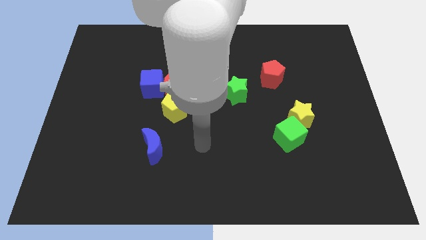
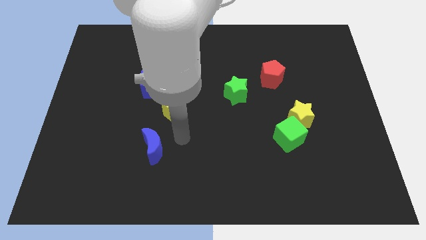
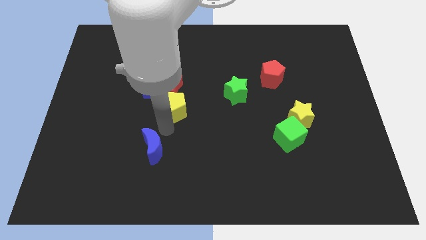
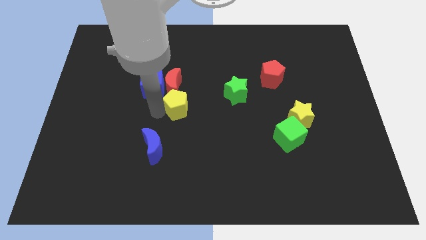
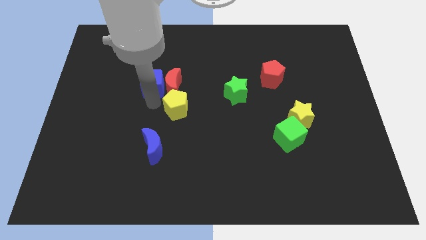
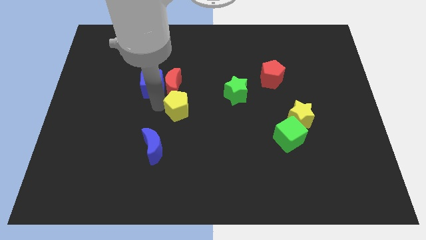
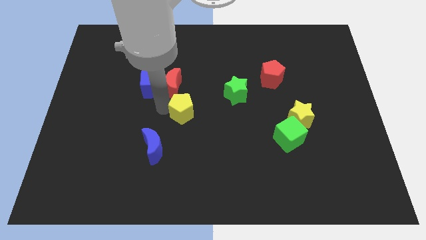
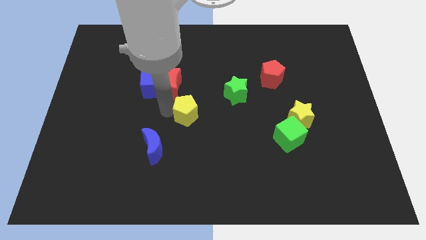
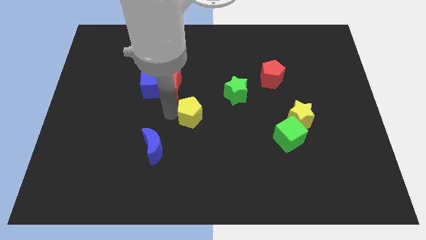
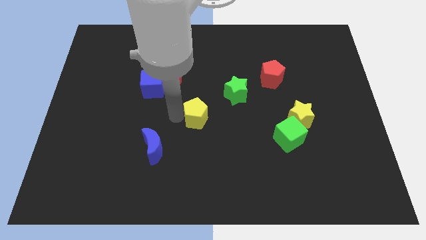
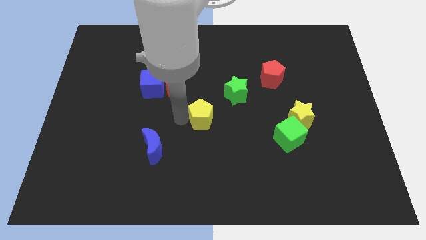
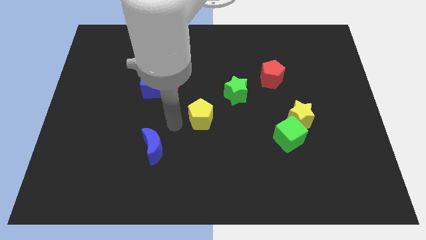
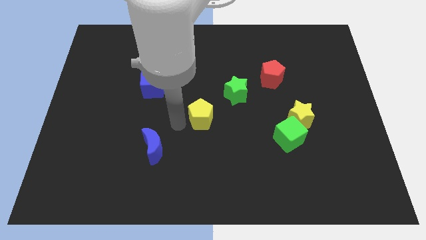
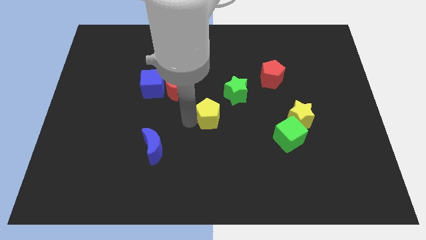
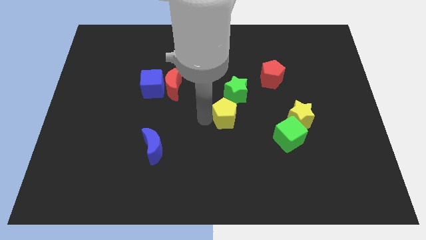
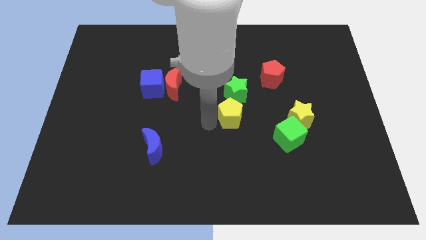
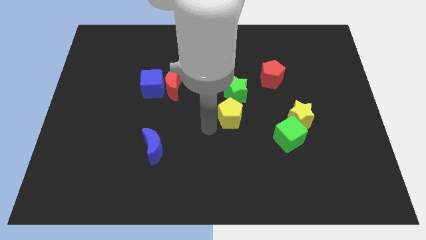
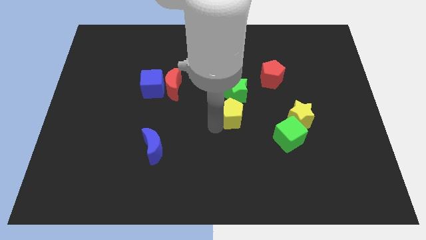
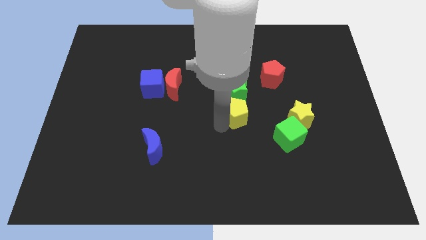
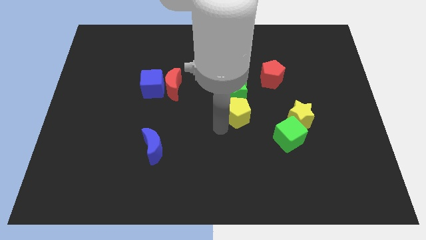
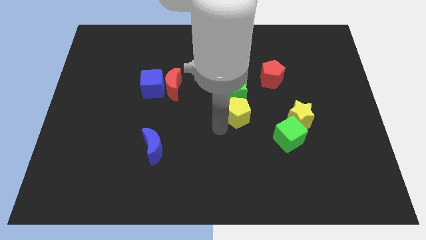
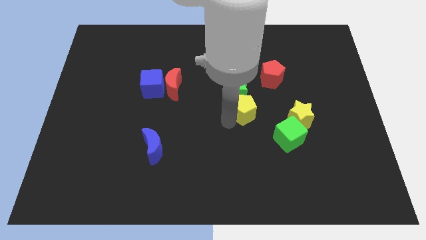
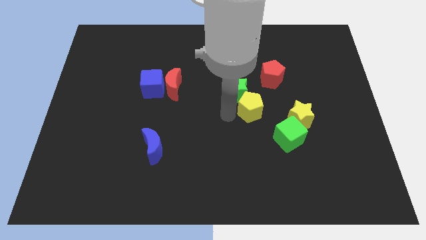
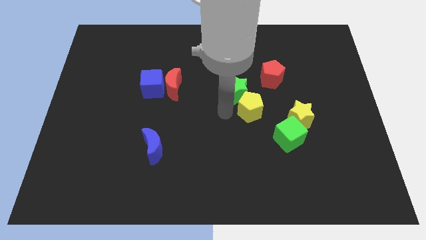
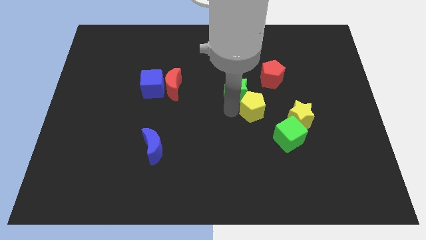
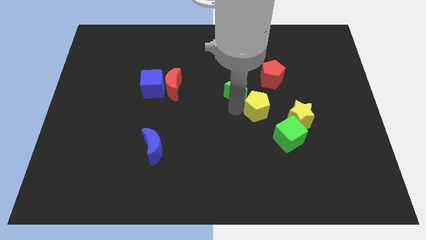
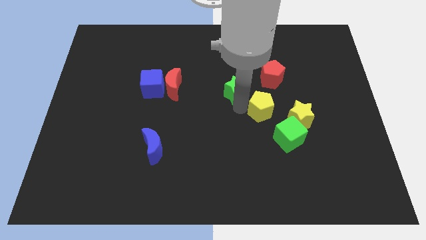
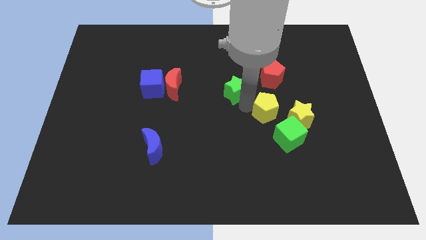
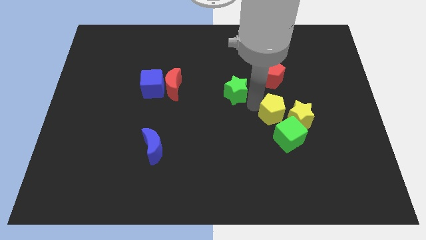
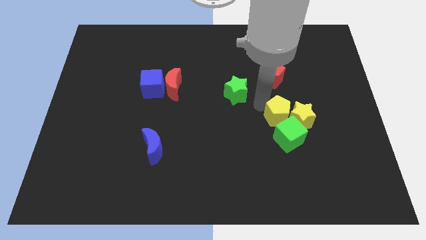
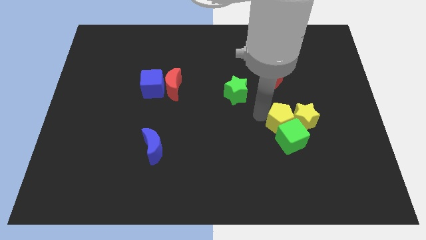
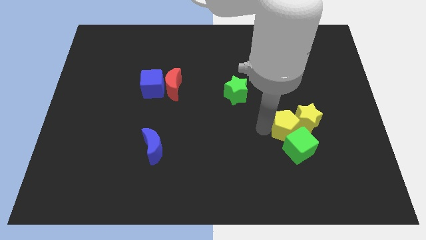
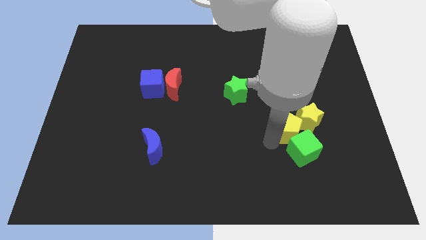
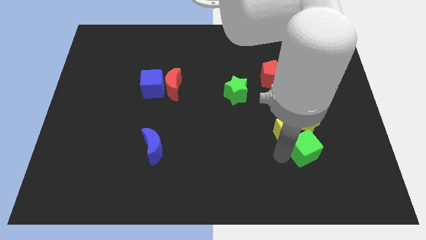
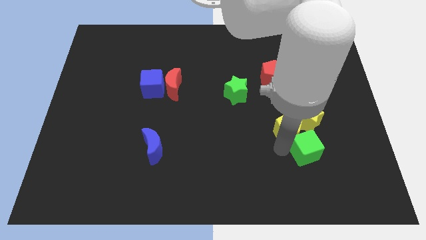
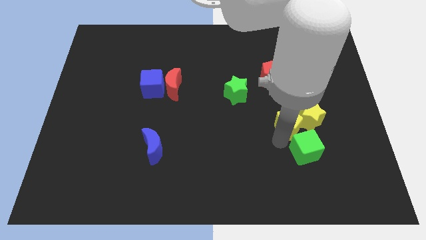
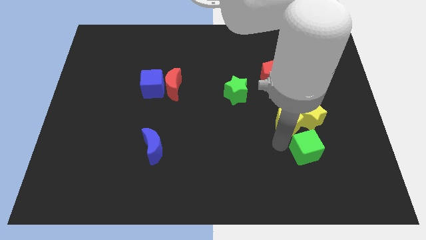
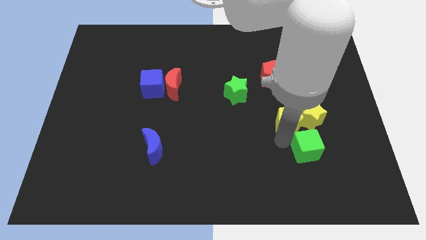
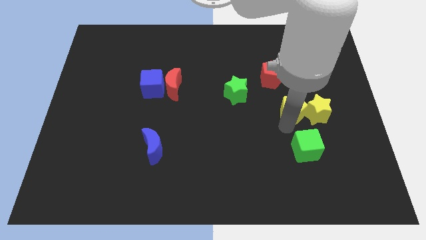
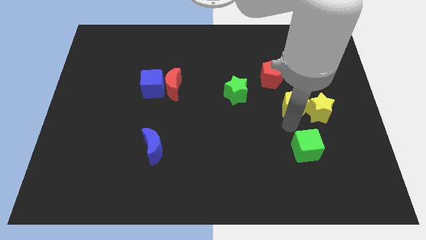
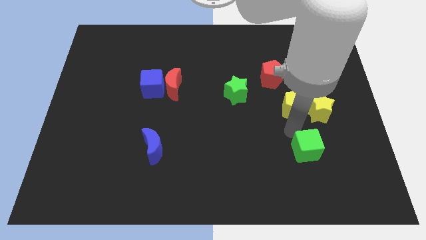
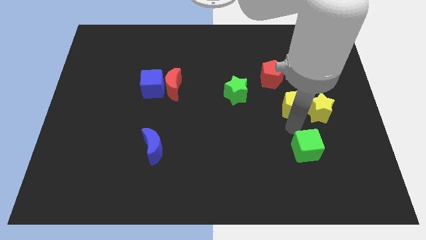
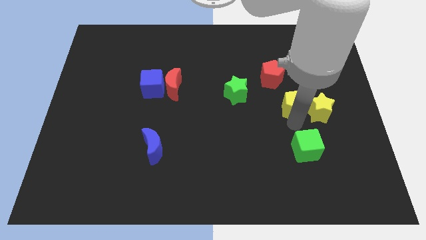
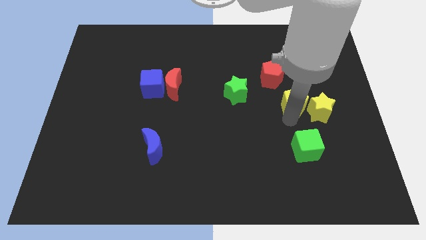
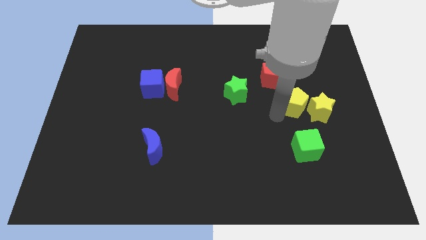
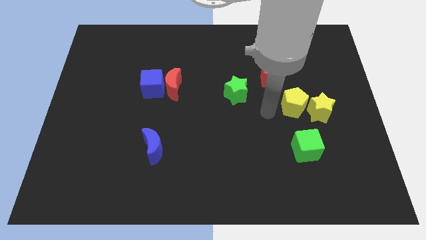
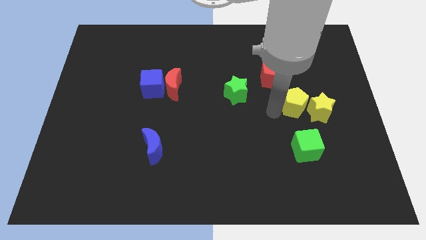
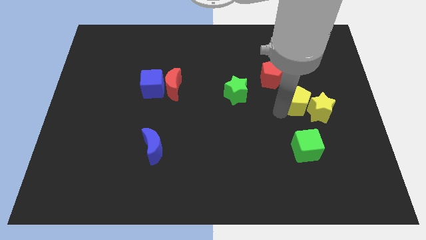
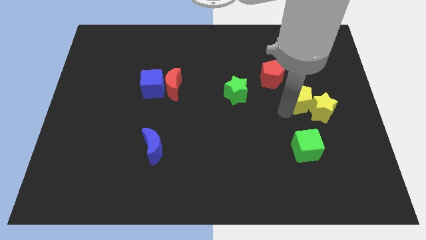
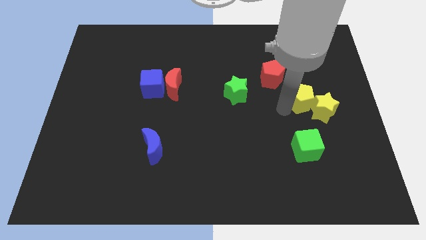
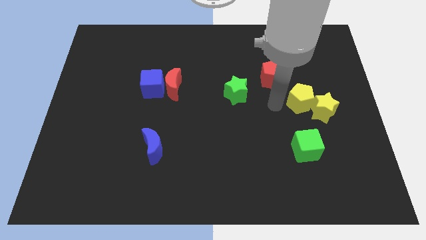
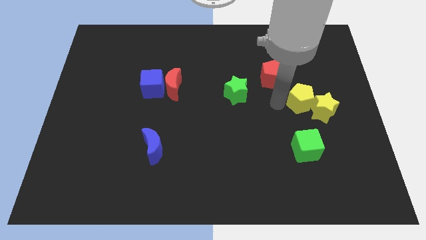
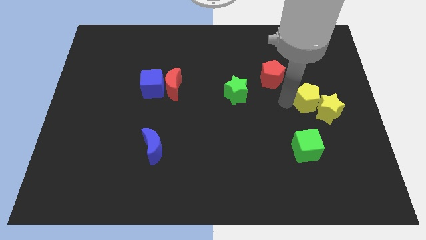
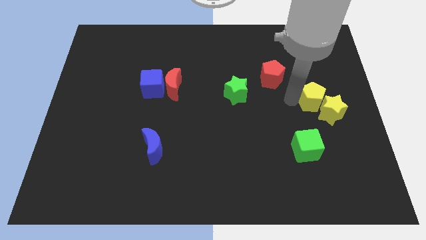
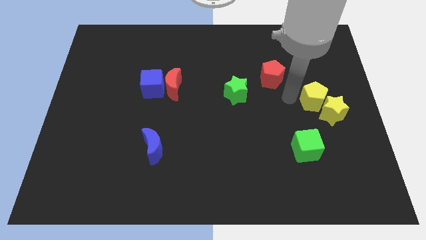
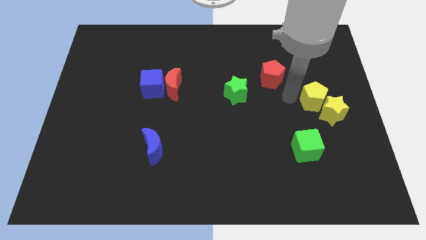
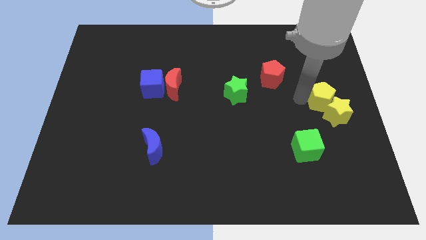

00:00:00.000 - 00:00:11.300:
slide the yellow pentagon to the right side

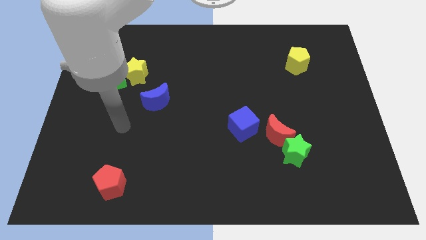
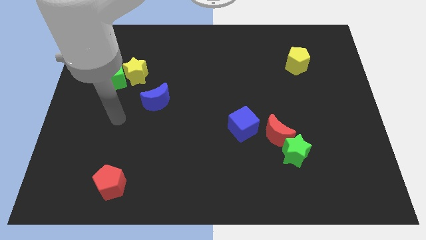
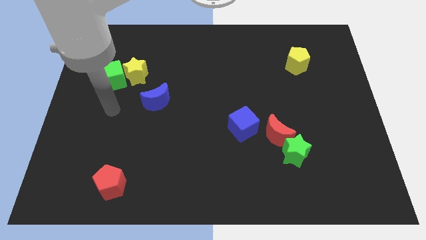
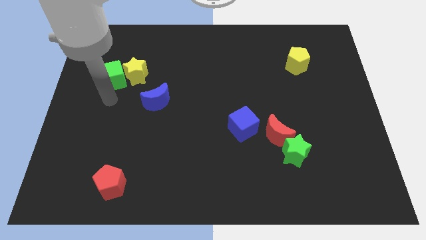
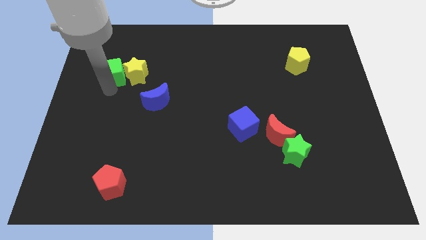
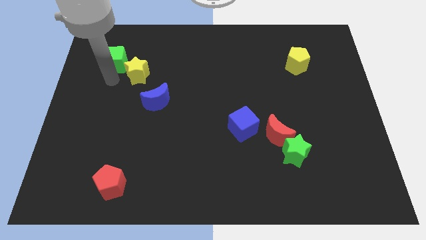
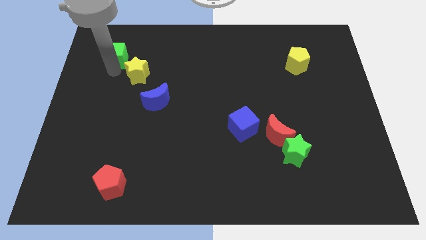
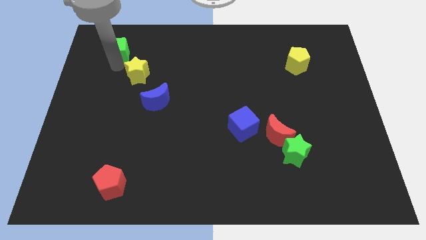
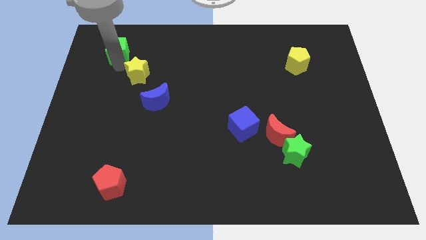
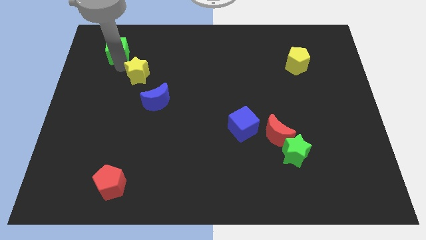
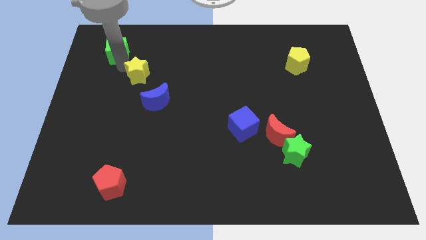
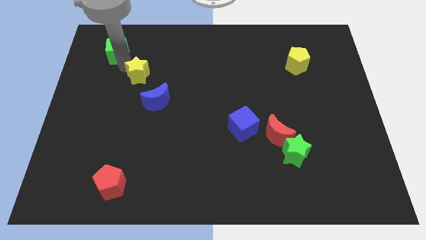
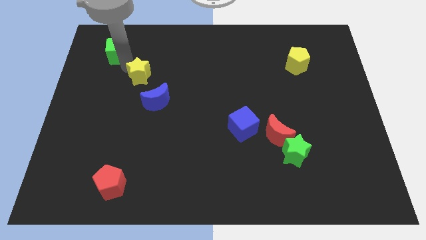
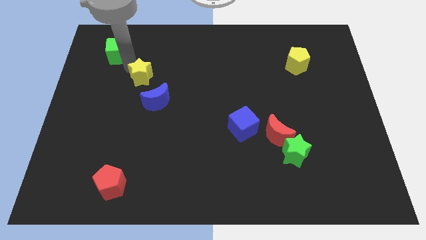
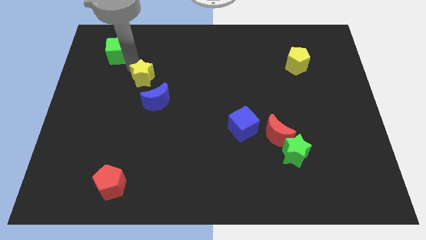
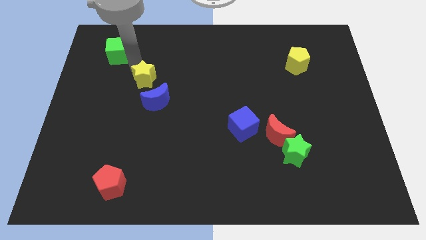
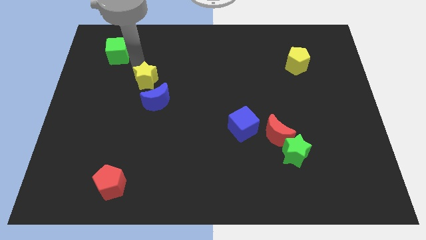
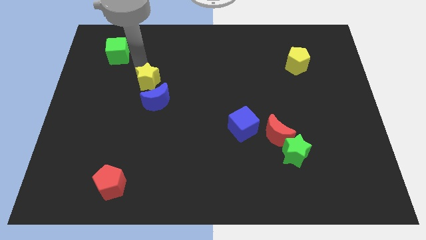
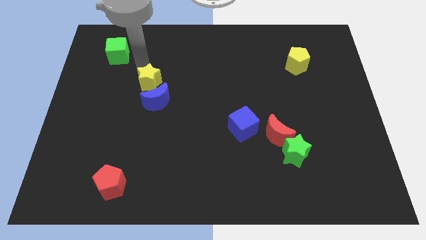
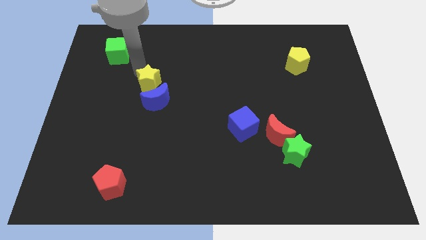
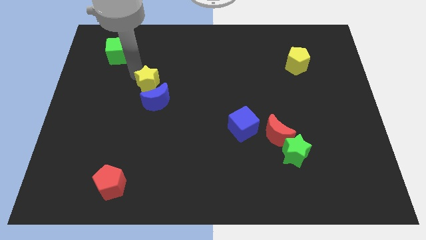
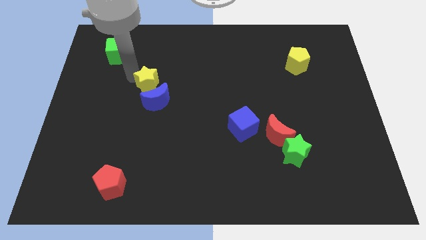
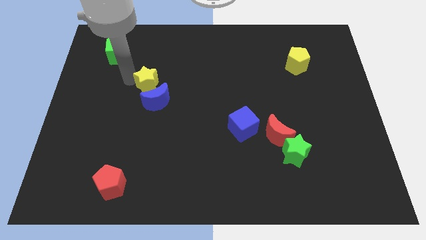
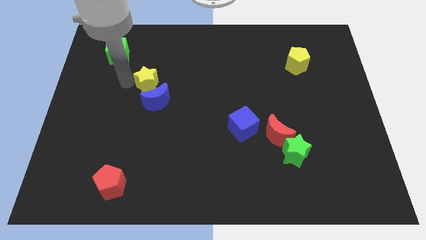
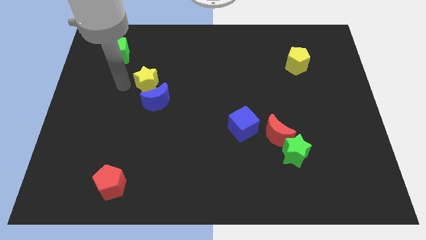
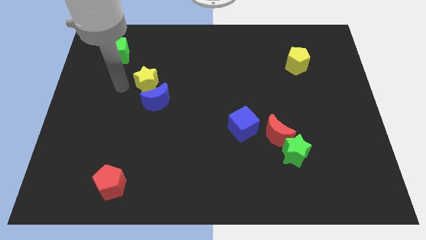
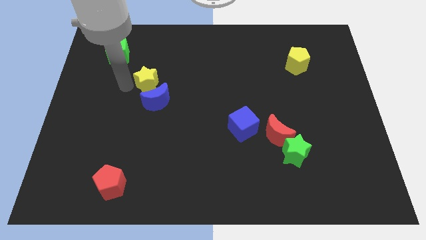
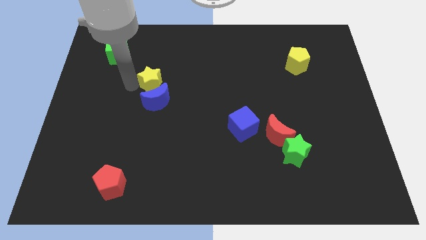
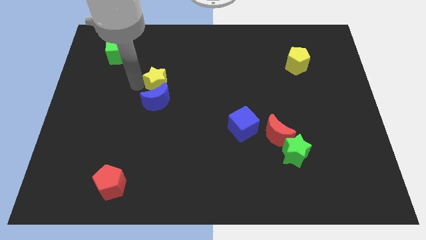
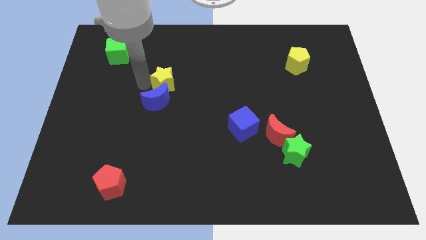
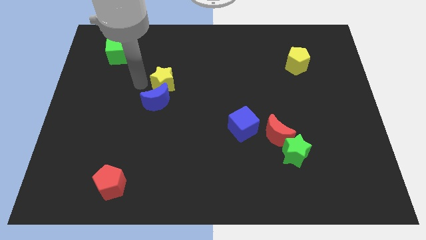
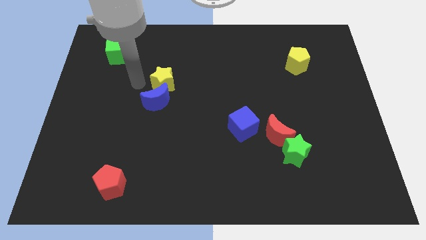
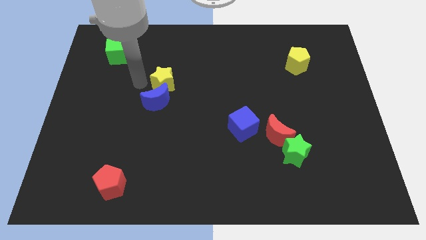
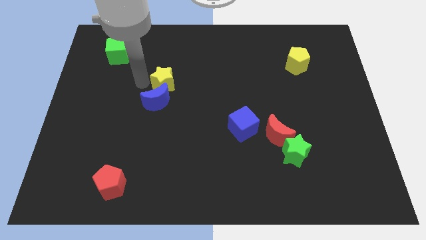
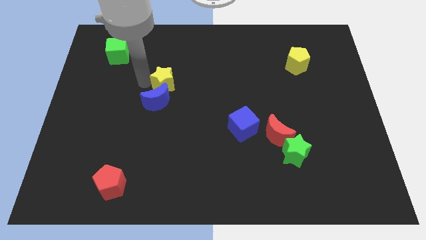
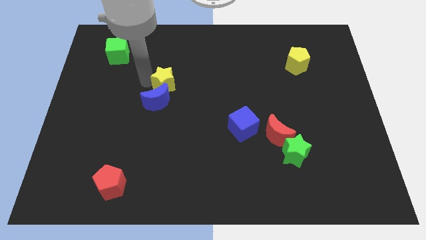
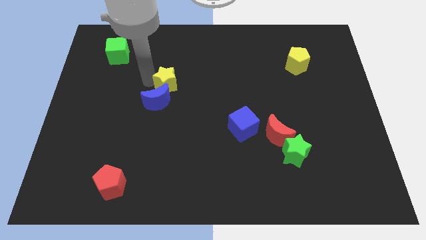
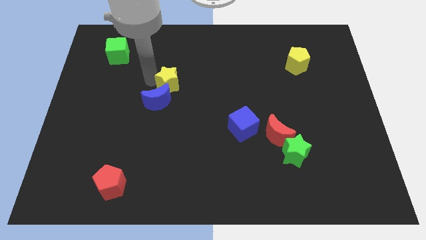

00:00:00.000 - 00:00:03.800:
push the yellow star to the middle
